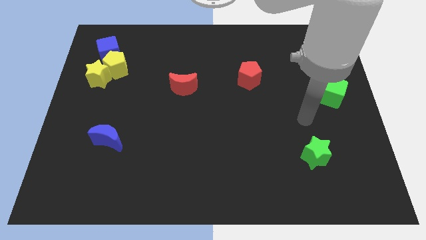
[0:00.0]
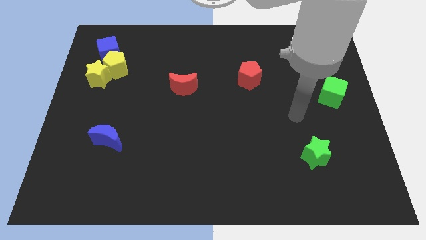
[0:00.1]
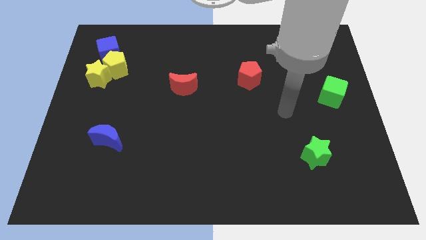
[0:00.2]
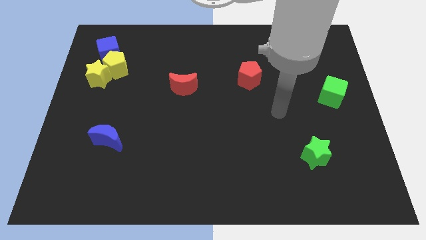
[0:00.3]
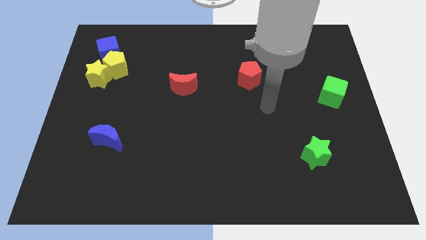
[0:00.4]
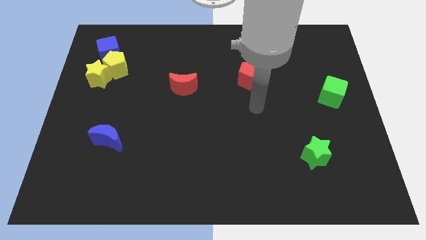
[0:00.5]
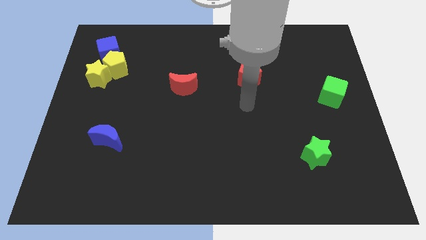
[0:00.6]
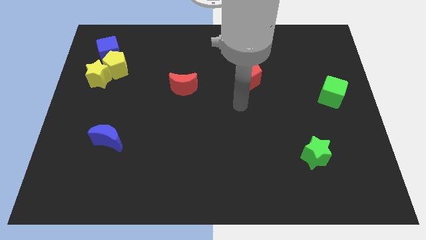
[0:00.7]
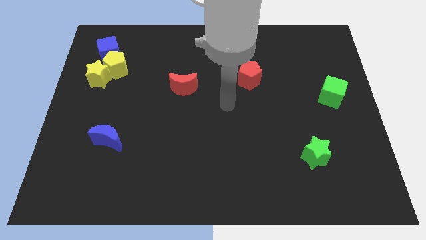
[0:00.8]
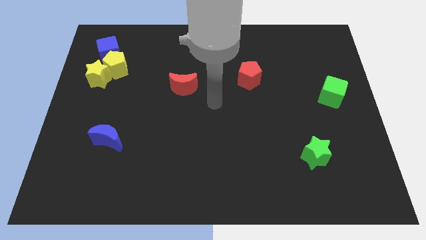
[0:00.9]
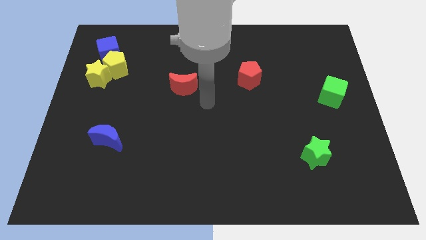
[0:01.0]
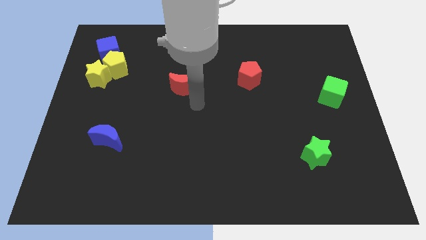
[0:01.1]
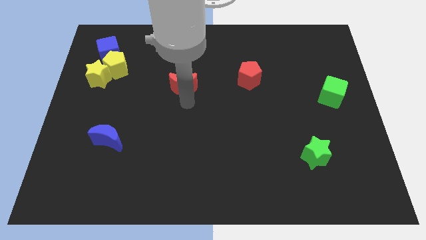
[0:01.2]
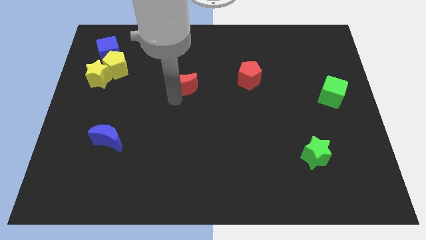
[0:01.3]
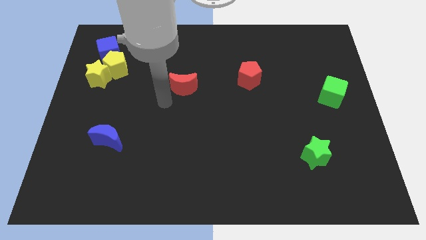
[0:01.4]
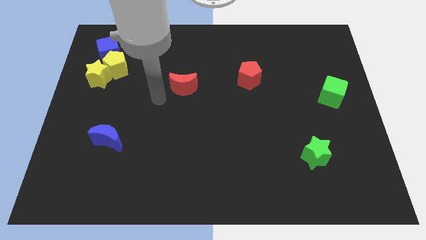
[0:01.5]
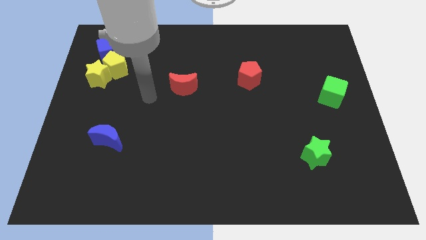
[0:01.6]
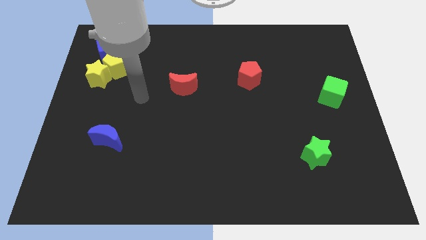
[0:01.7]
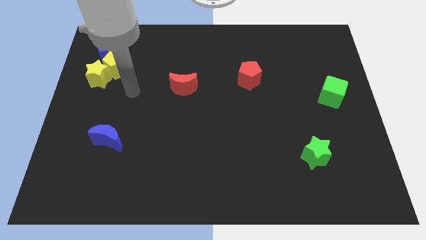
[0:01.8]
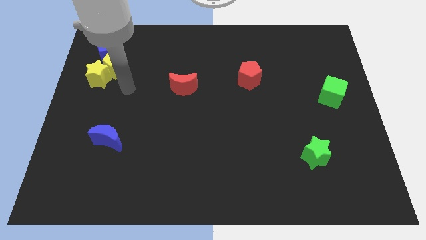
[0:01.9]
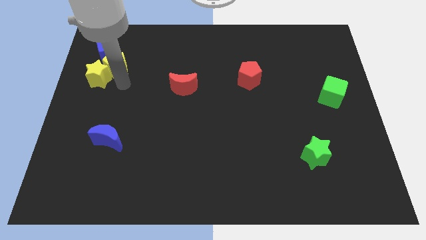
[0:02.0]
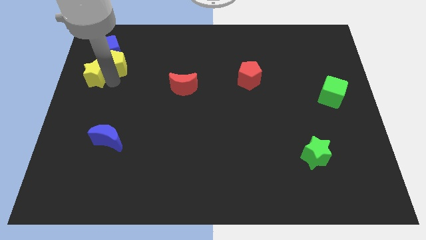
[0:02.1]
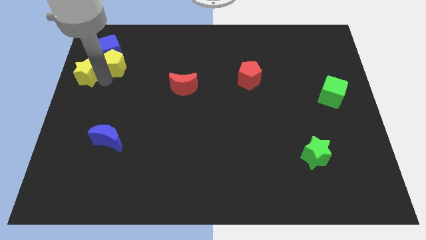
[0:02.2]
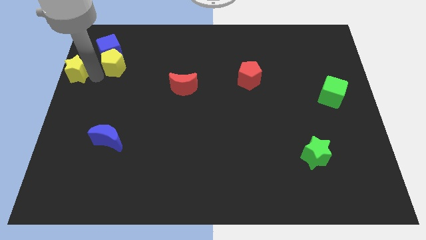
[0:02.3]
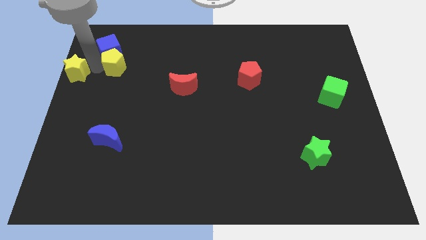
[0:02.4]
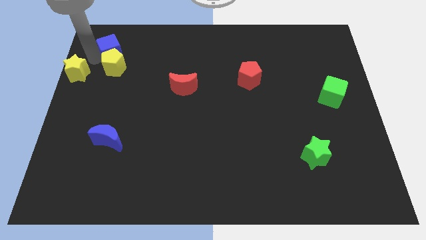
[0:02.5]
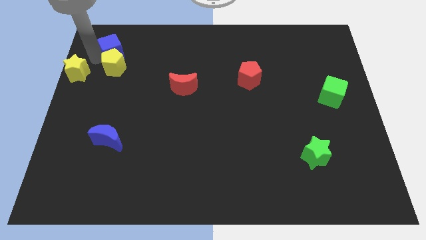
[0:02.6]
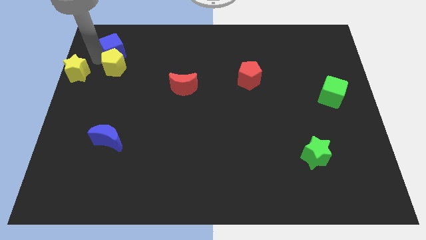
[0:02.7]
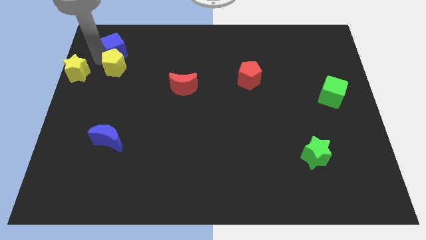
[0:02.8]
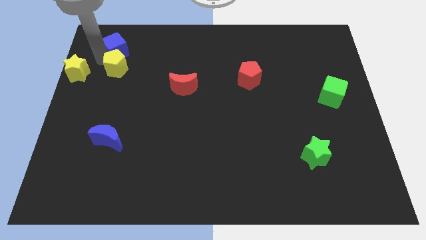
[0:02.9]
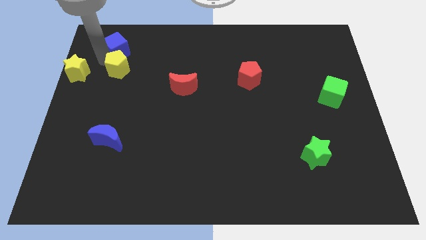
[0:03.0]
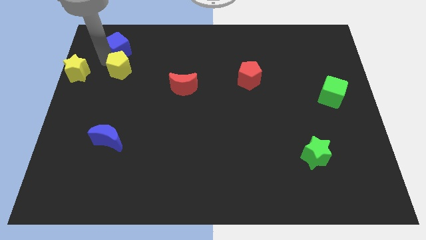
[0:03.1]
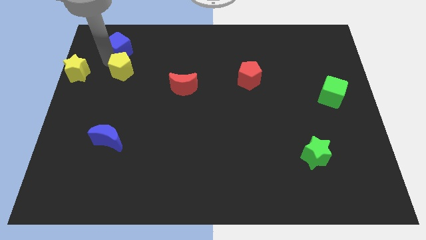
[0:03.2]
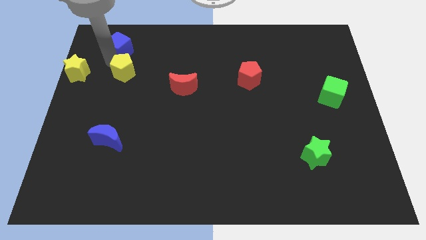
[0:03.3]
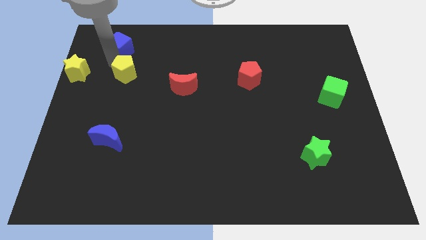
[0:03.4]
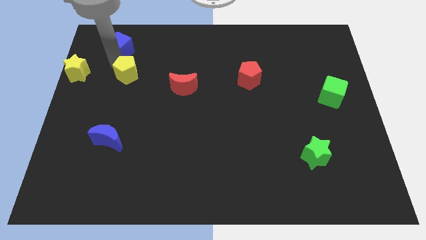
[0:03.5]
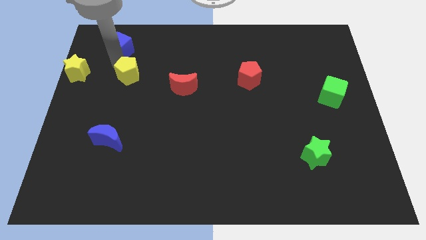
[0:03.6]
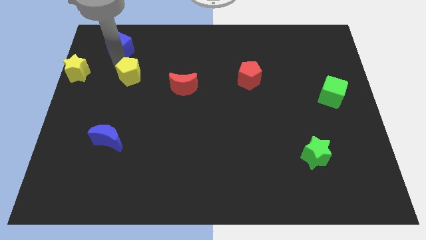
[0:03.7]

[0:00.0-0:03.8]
move the yellow pentagon away from the yellow star and blue cube

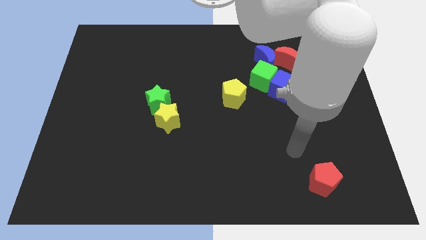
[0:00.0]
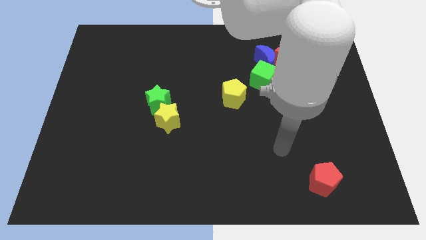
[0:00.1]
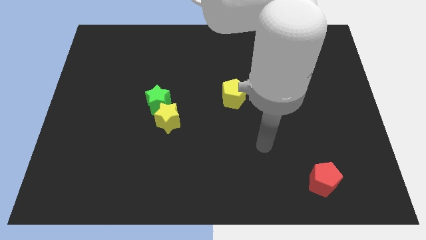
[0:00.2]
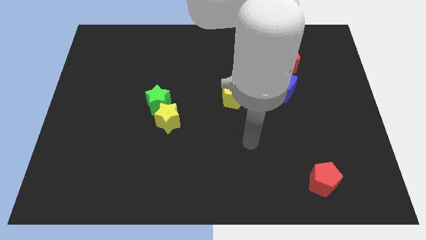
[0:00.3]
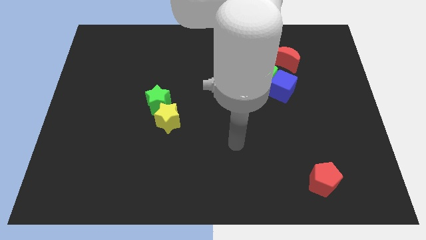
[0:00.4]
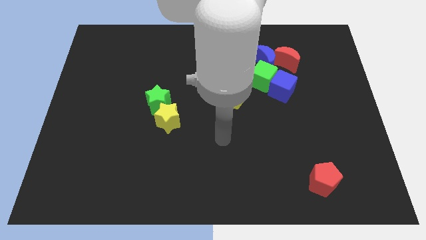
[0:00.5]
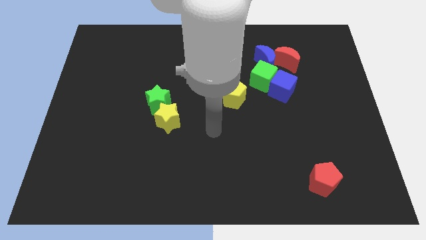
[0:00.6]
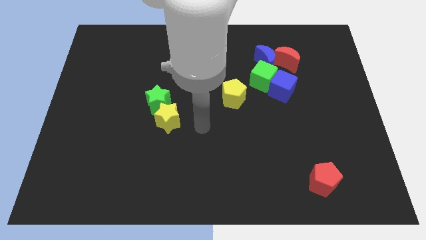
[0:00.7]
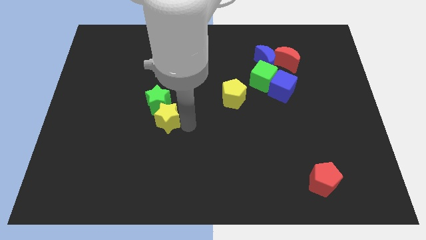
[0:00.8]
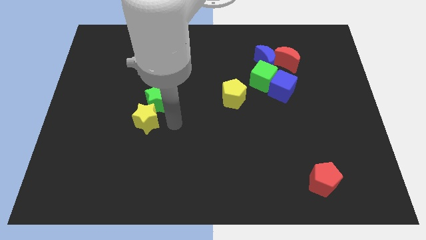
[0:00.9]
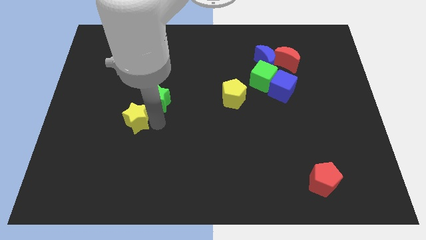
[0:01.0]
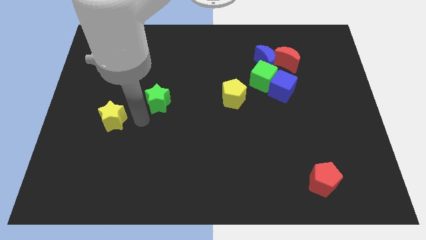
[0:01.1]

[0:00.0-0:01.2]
move the green star away from the yellow star

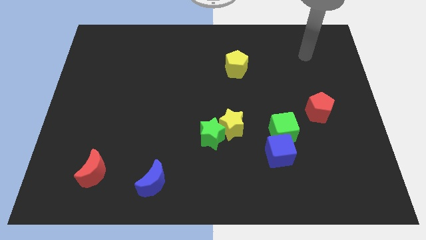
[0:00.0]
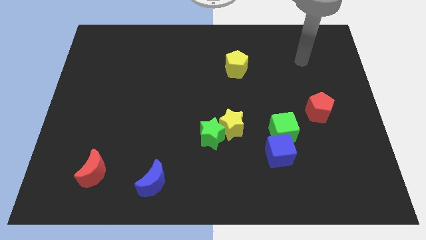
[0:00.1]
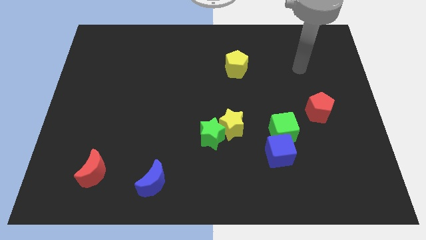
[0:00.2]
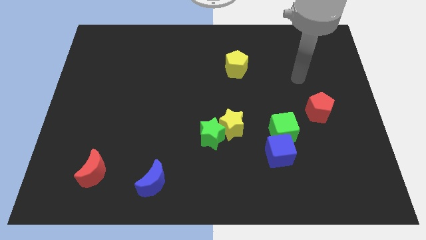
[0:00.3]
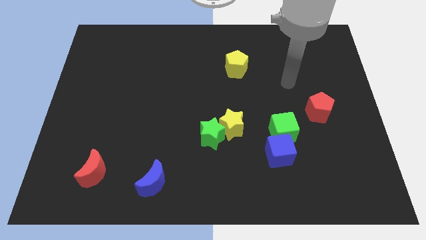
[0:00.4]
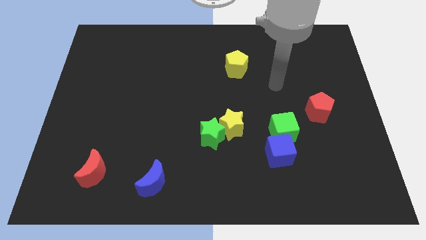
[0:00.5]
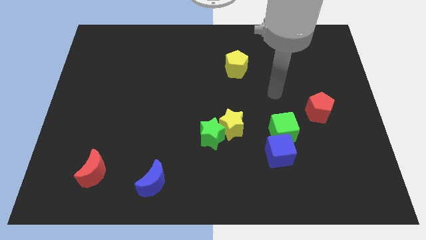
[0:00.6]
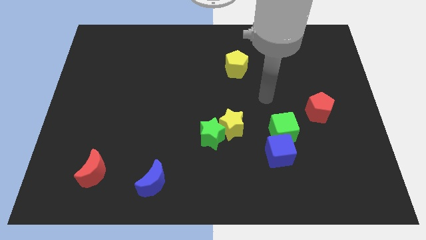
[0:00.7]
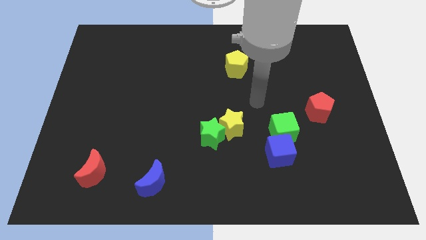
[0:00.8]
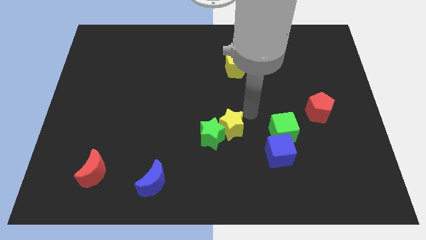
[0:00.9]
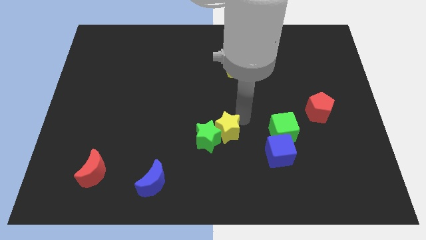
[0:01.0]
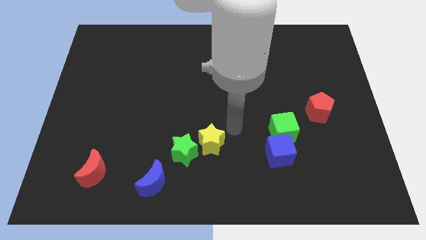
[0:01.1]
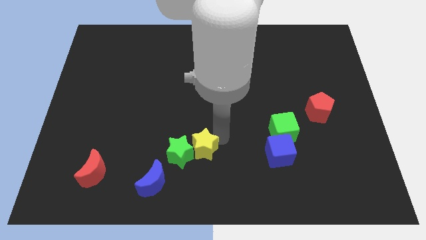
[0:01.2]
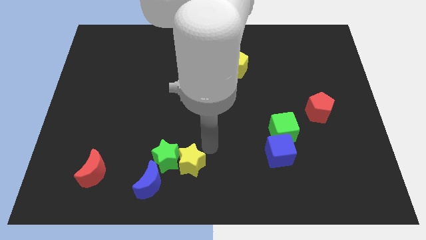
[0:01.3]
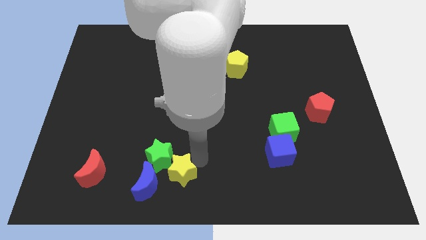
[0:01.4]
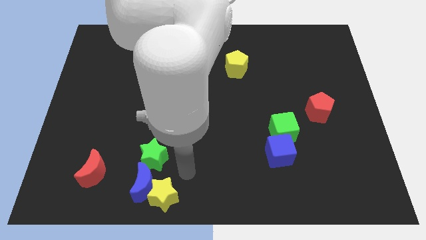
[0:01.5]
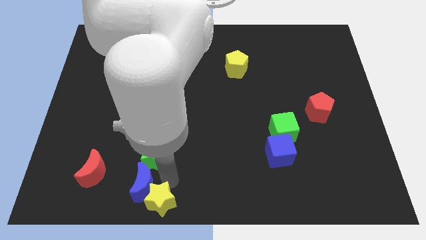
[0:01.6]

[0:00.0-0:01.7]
pull the green star apart from the yellow star

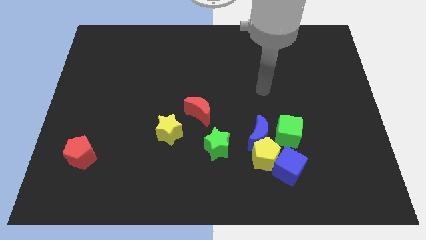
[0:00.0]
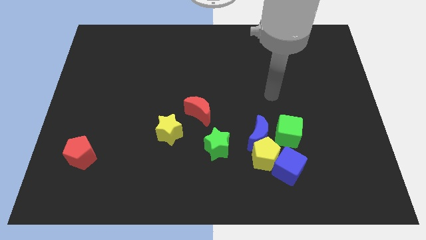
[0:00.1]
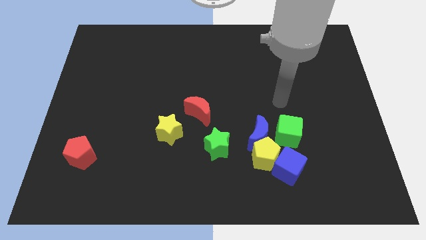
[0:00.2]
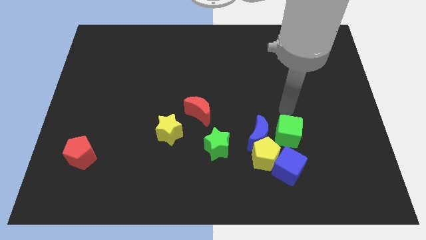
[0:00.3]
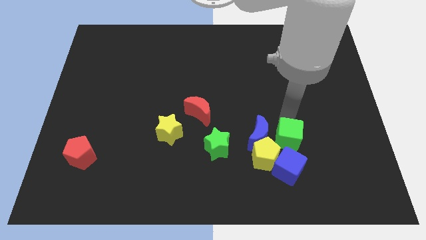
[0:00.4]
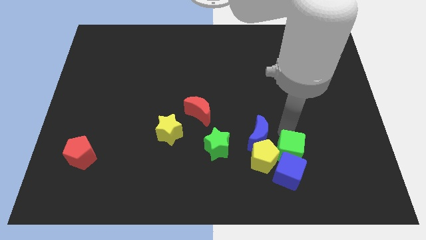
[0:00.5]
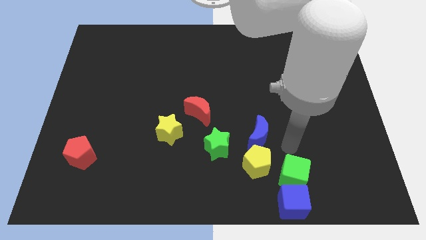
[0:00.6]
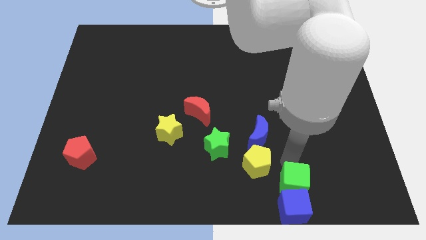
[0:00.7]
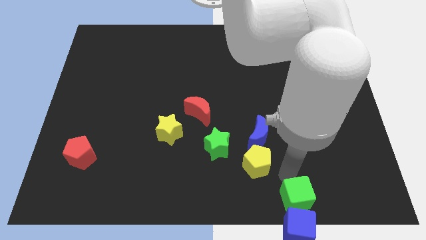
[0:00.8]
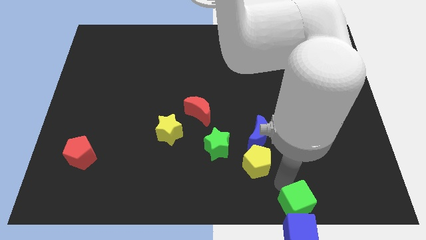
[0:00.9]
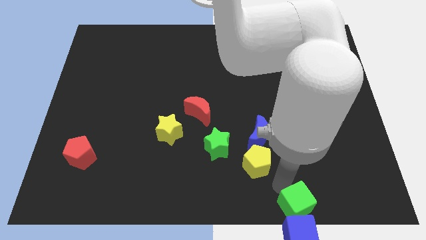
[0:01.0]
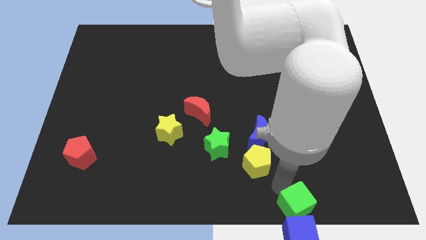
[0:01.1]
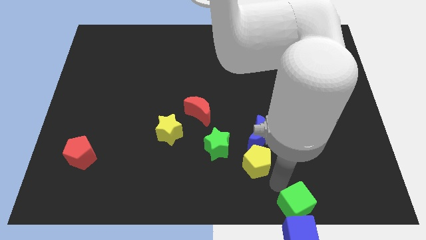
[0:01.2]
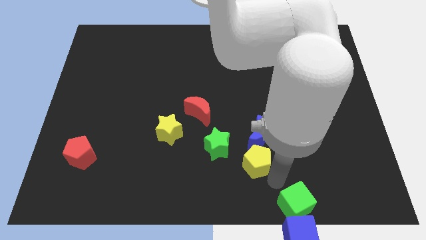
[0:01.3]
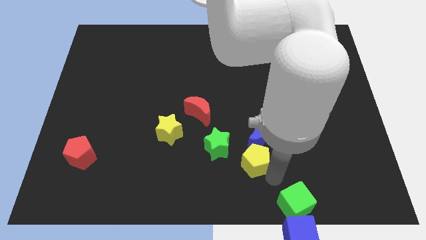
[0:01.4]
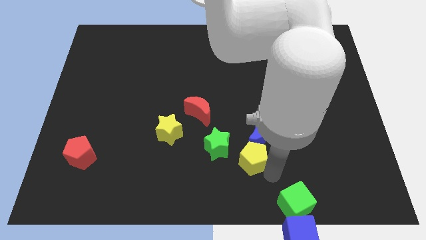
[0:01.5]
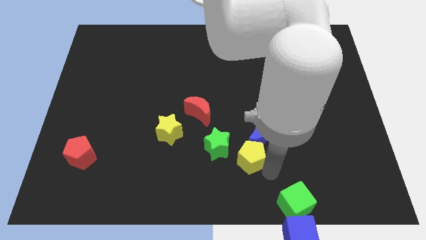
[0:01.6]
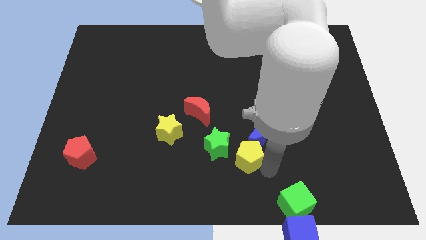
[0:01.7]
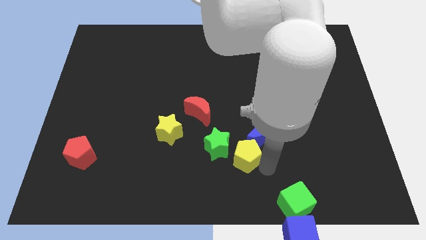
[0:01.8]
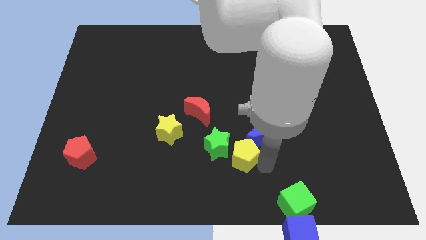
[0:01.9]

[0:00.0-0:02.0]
pull the yellow pentagon apart from the blue moon, blue cube, and green cube

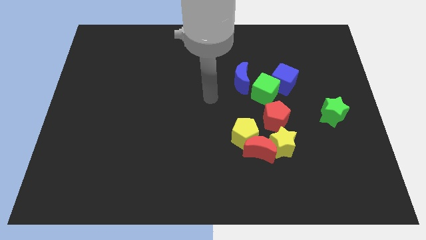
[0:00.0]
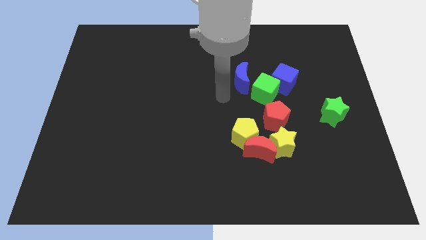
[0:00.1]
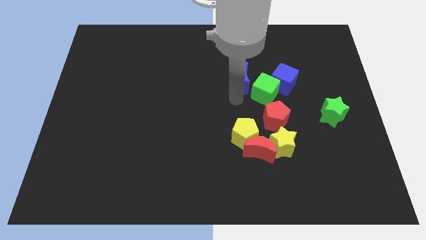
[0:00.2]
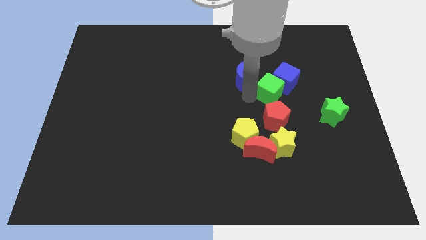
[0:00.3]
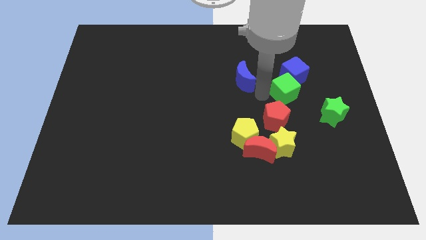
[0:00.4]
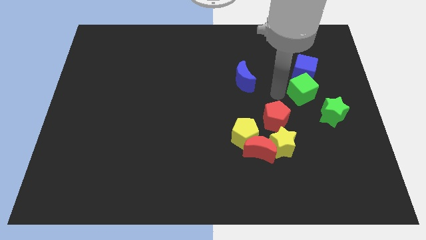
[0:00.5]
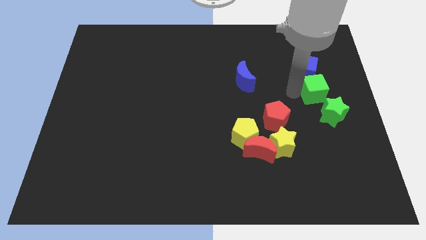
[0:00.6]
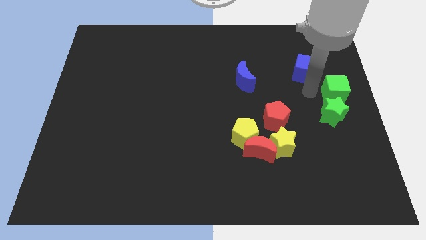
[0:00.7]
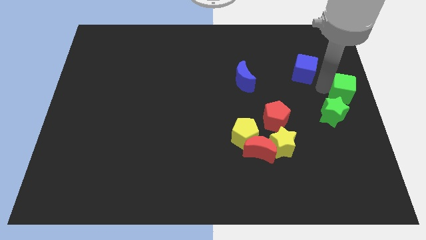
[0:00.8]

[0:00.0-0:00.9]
move the blue cube away from the green cube
